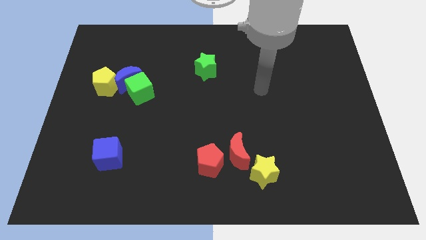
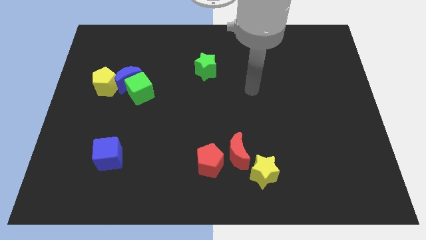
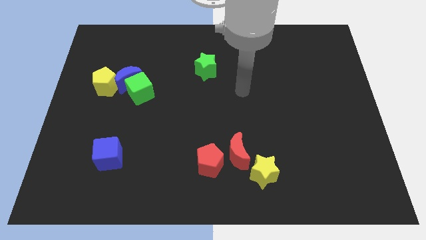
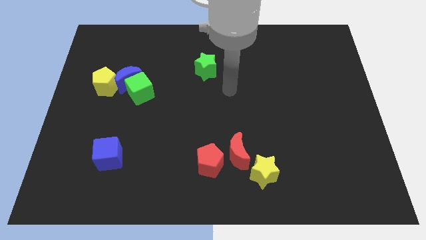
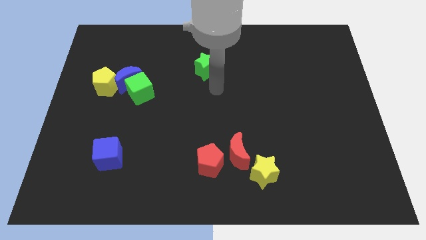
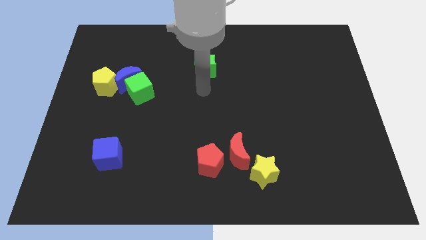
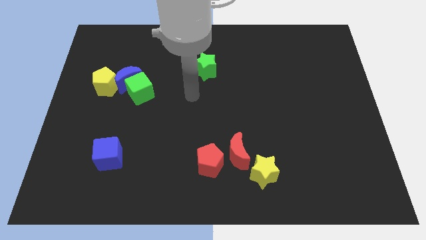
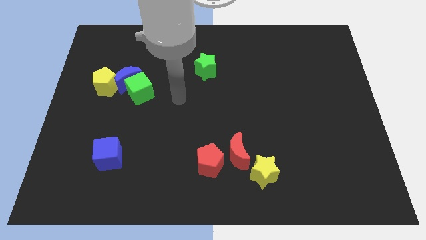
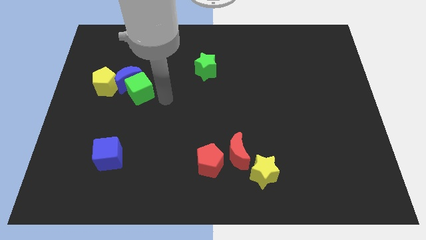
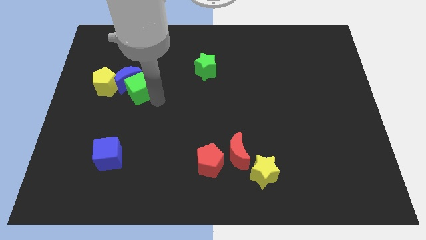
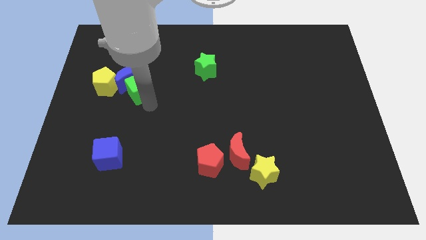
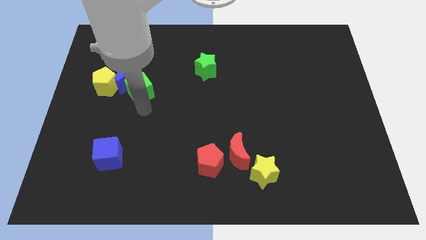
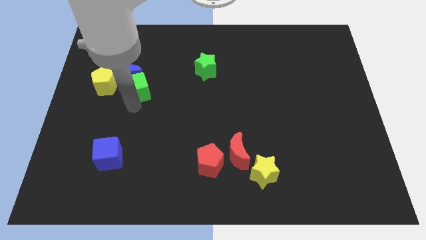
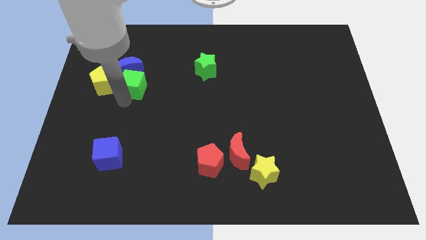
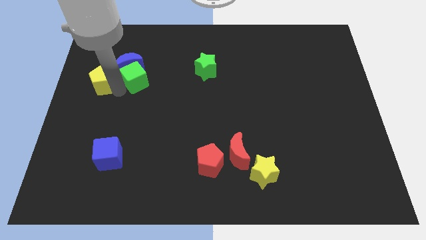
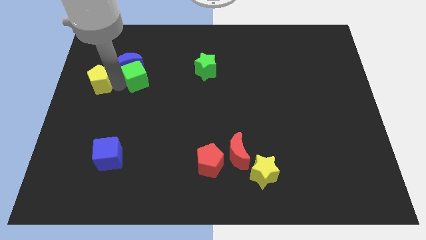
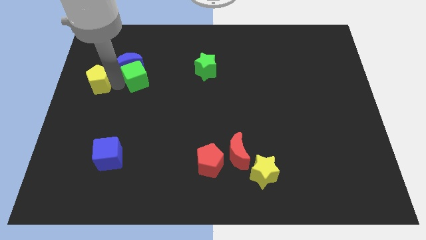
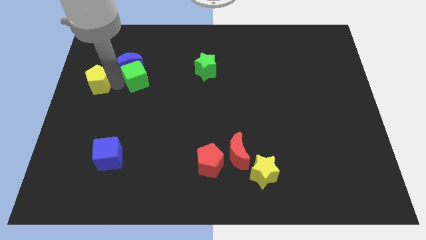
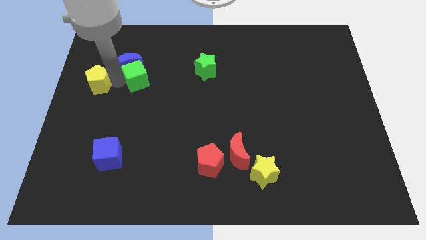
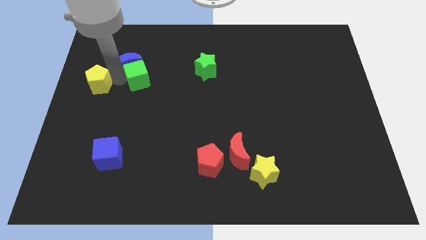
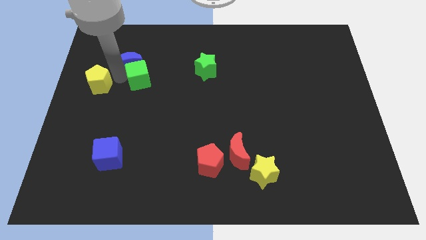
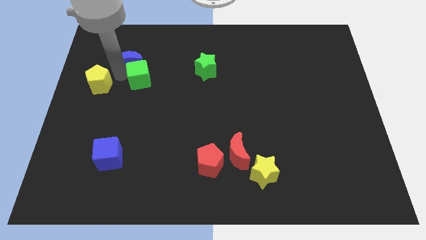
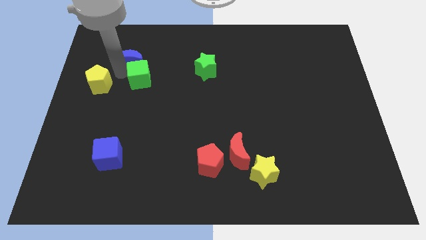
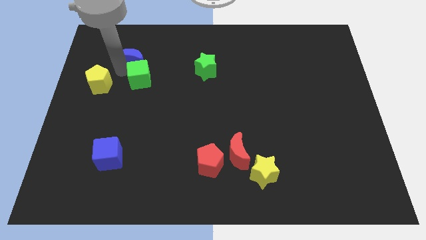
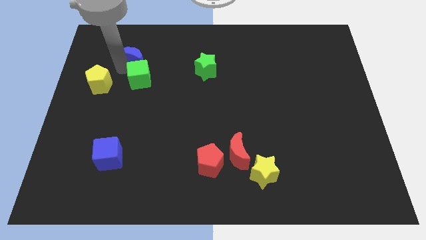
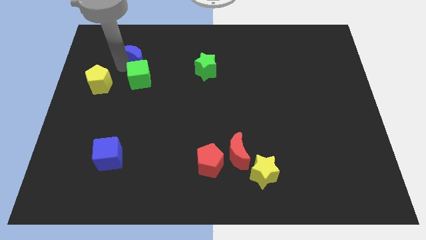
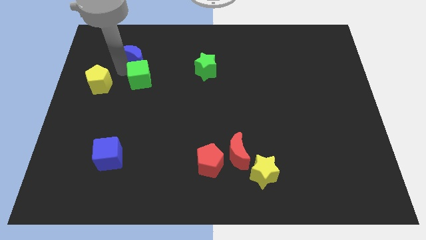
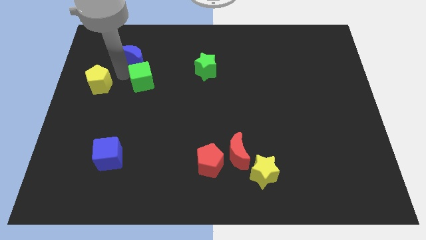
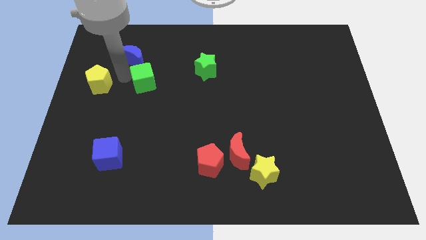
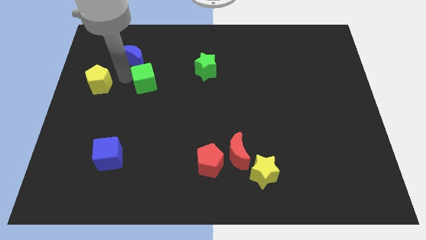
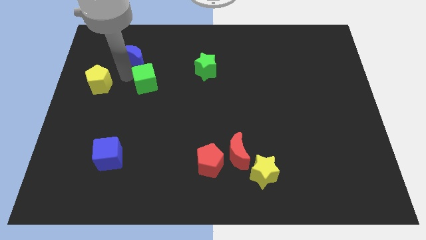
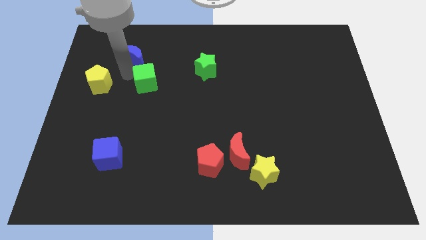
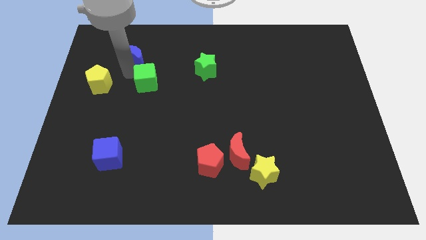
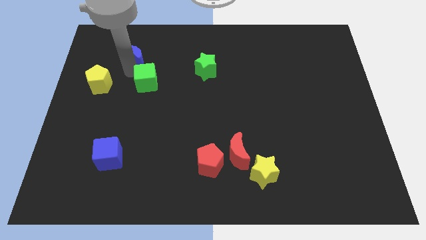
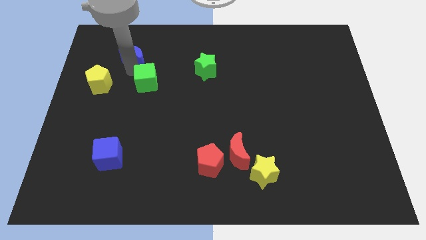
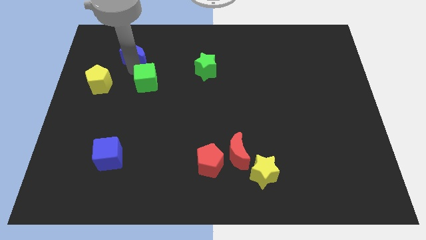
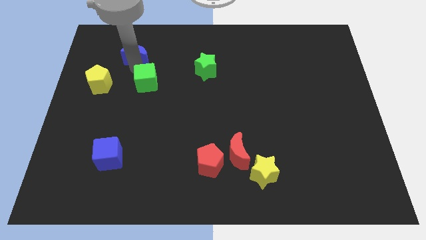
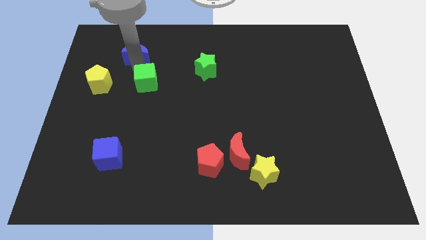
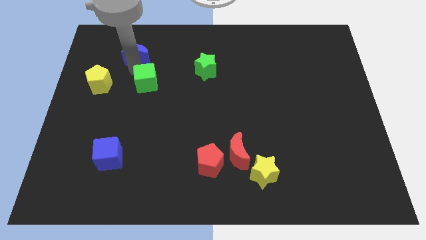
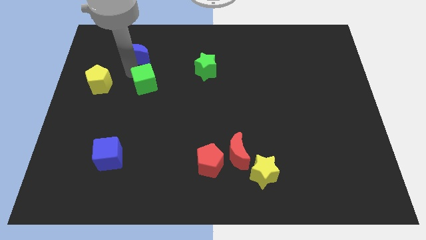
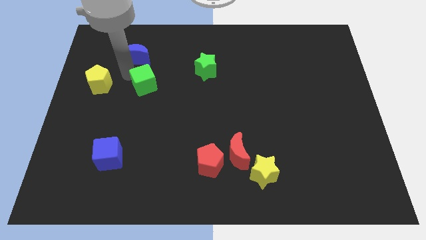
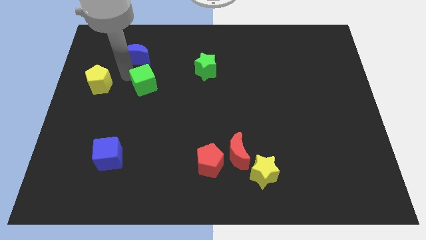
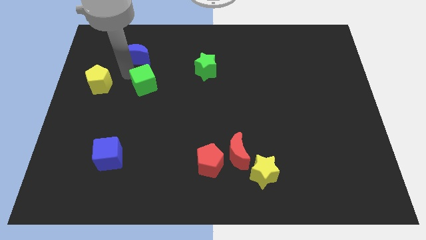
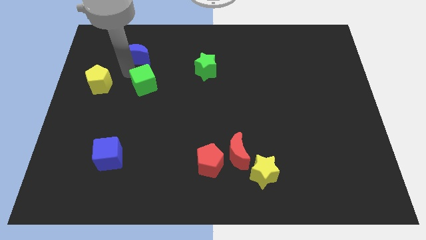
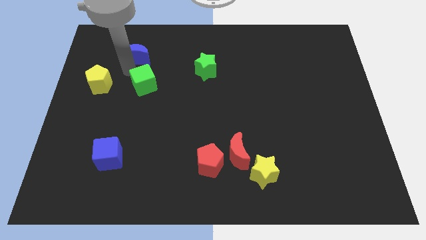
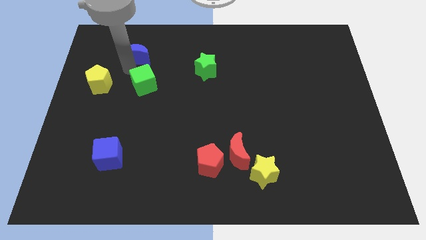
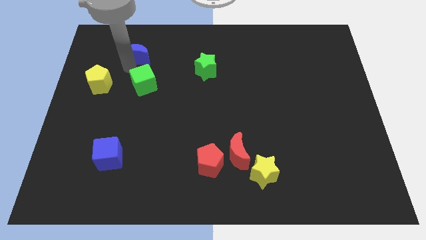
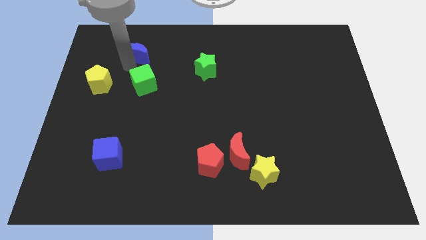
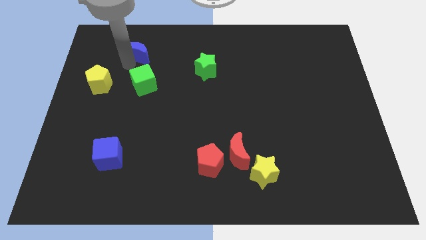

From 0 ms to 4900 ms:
pull the blue moon apart from the green cube and yellow pentagon

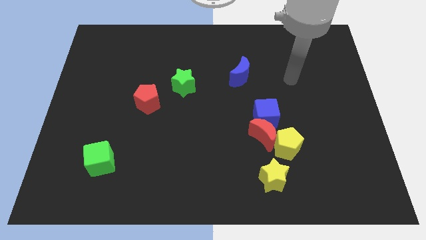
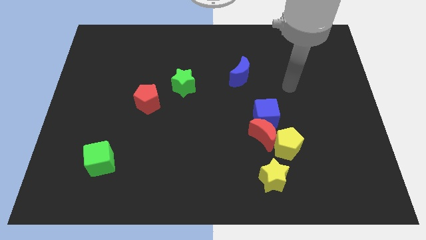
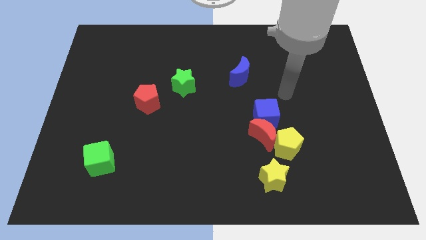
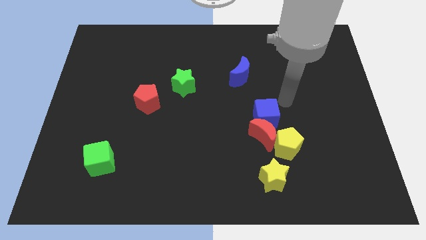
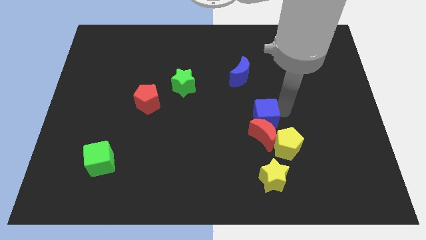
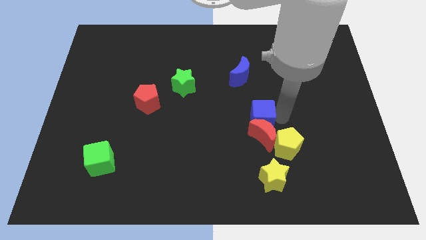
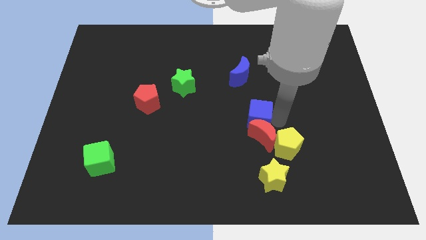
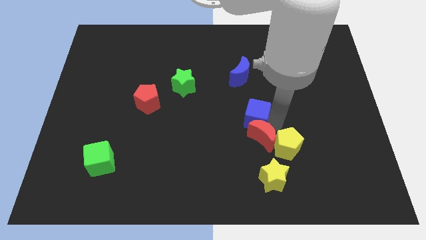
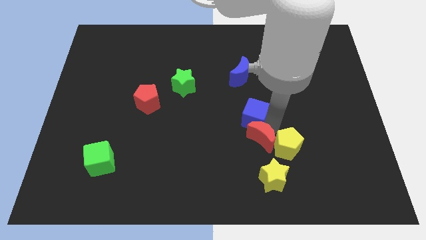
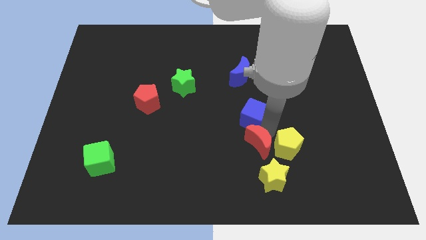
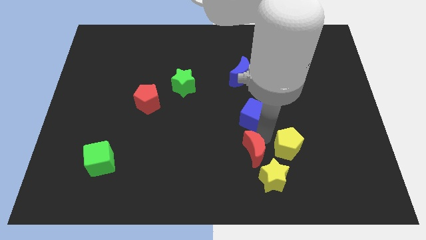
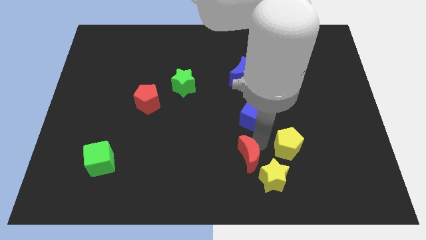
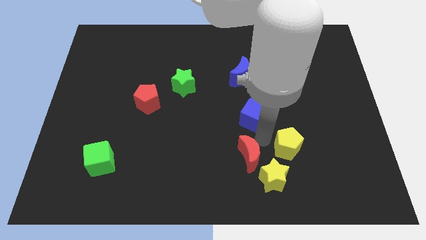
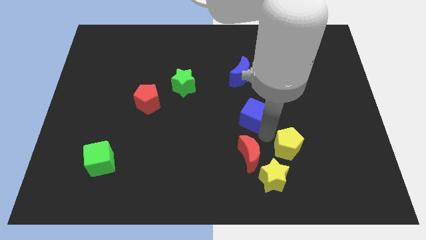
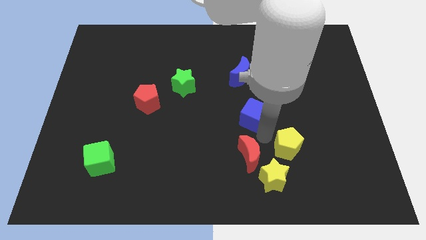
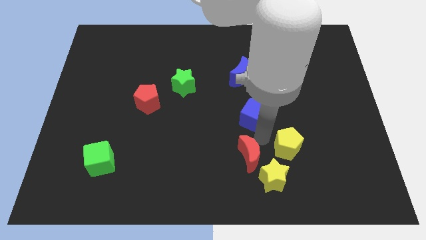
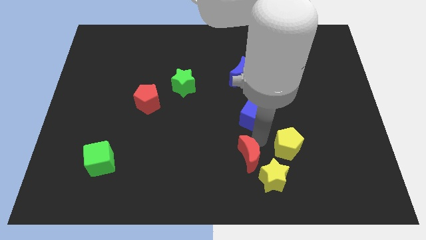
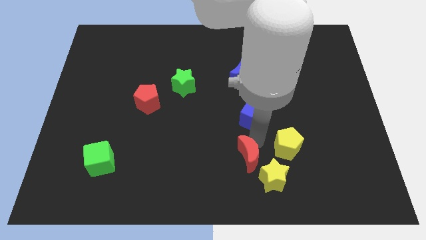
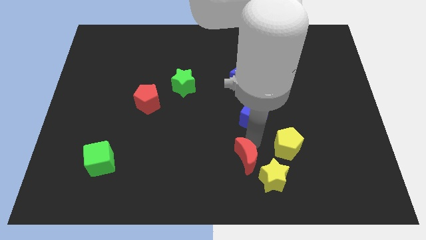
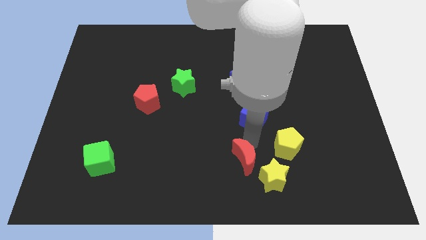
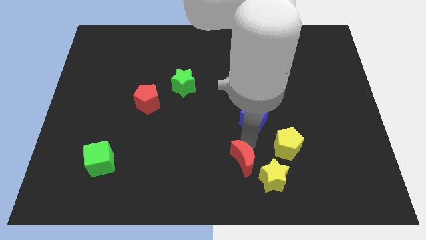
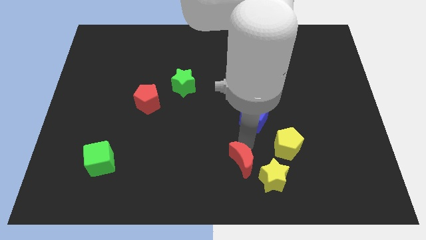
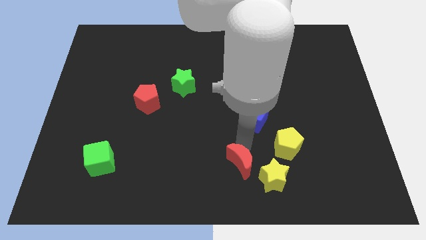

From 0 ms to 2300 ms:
pull the red moon apart from the blue cube and yellow pentagon

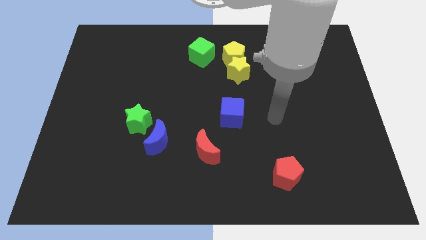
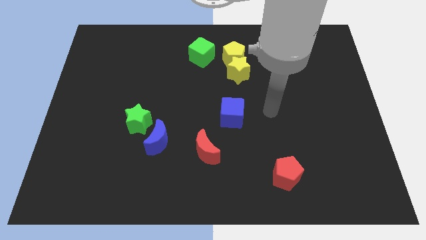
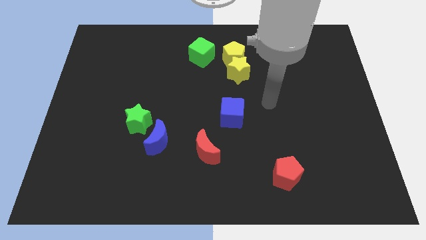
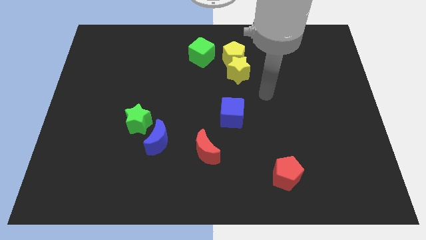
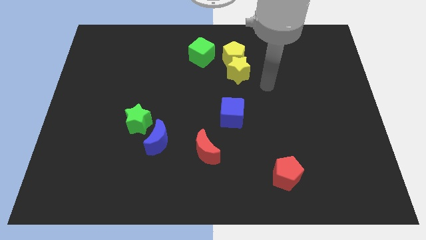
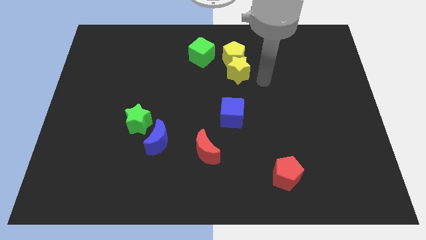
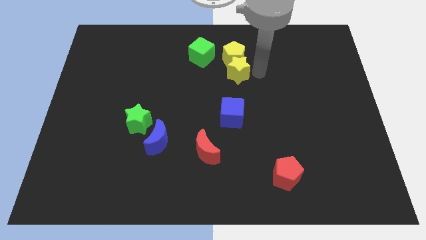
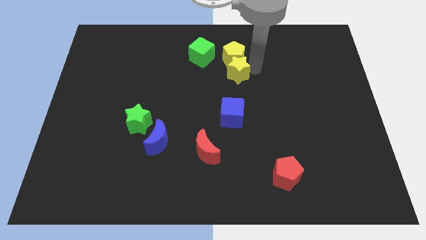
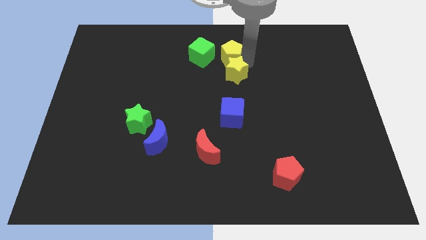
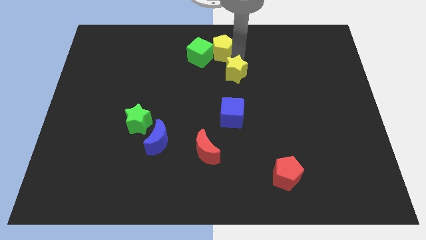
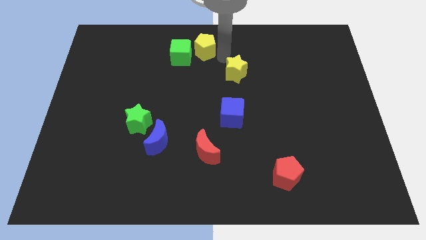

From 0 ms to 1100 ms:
separate the yellow star from the yellow pentagon

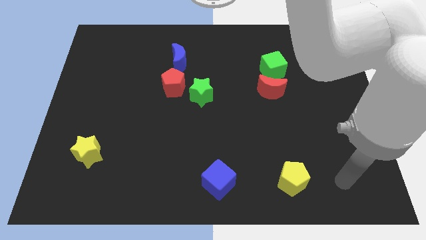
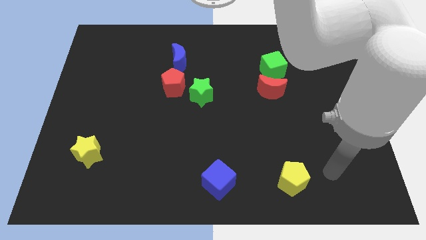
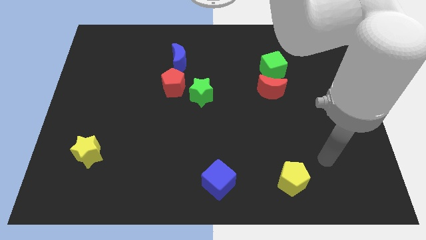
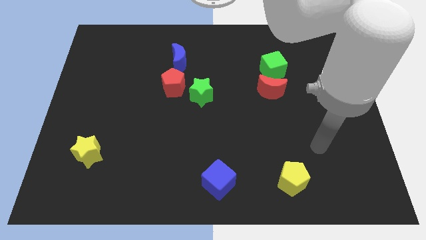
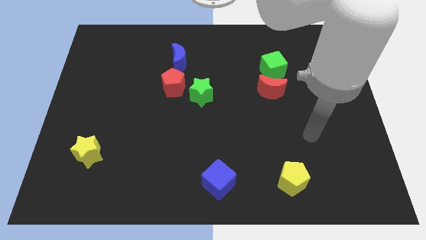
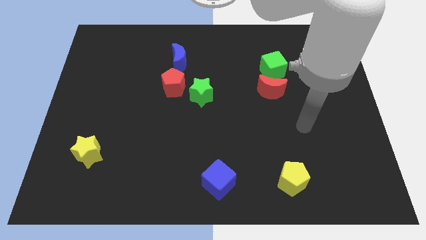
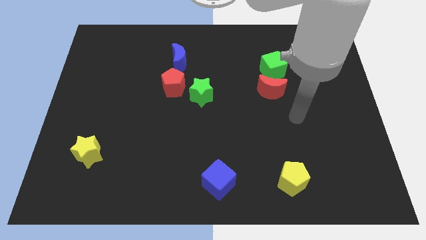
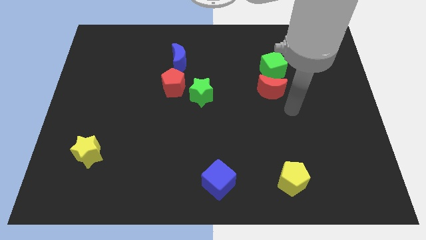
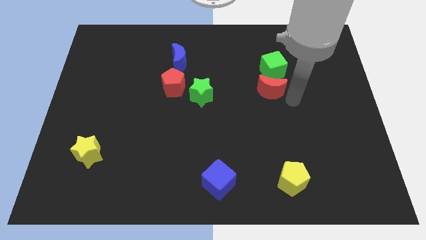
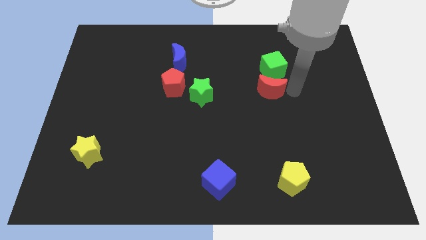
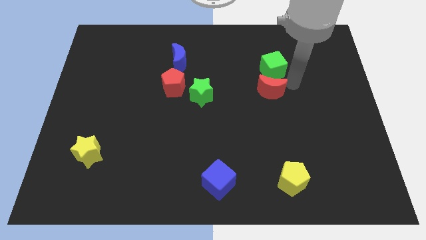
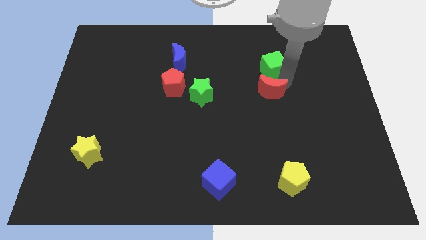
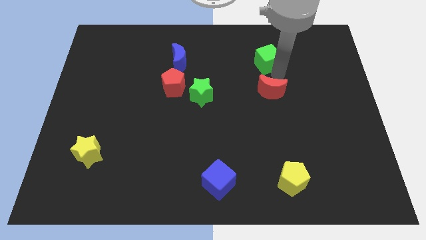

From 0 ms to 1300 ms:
separate the red moon from the green cube
